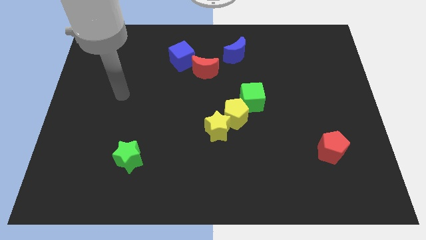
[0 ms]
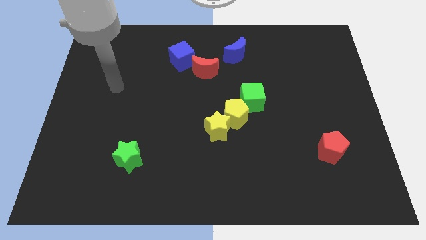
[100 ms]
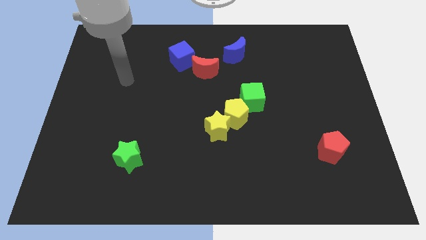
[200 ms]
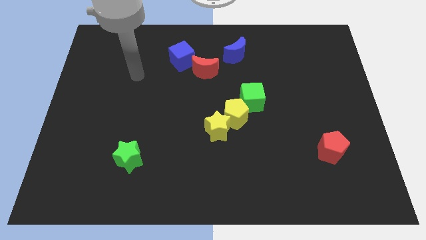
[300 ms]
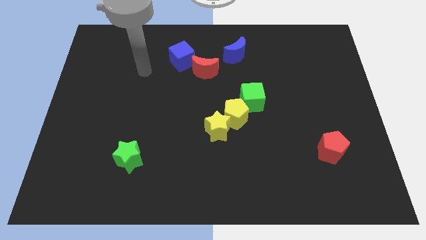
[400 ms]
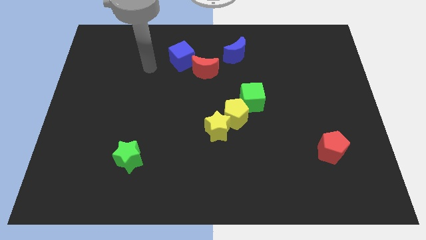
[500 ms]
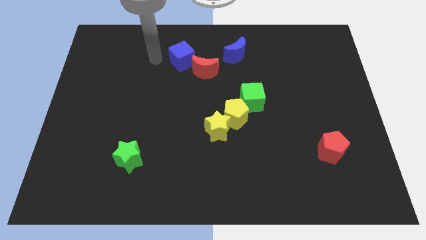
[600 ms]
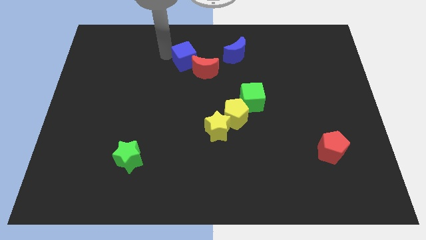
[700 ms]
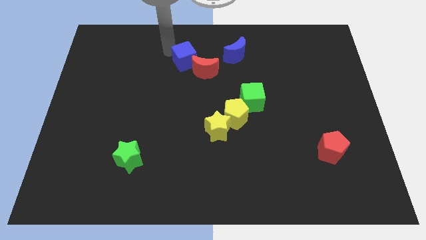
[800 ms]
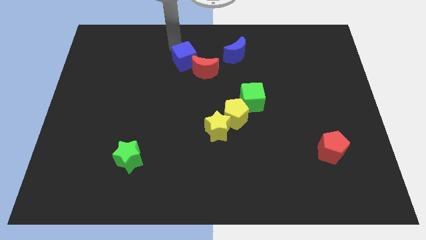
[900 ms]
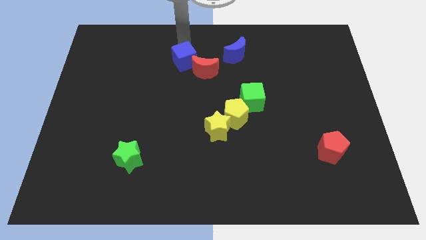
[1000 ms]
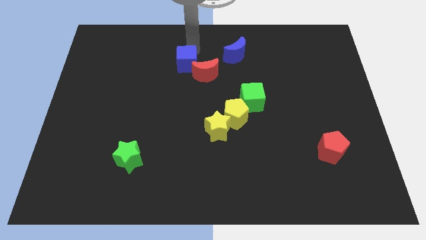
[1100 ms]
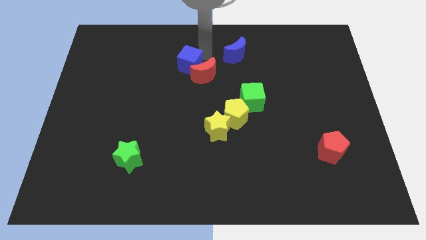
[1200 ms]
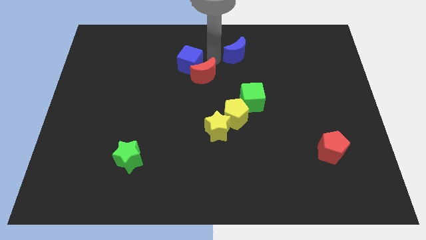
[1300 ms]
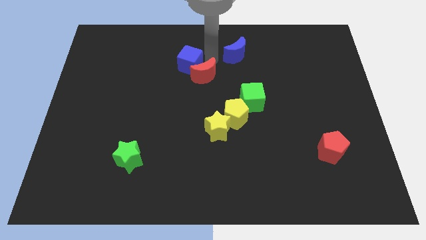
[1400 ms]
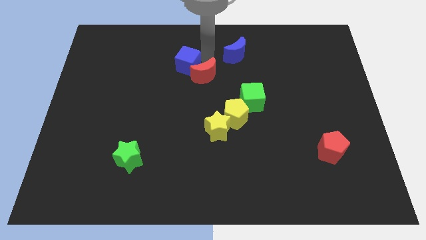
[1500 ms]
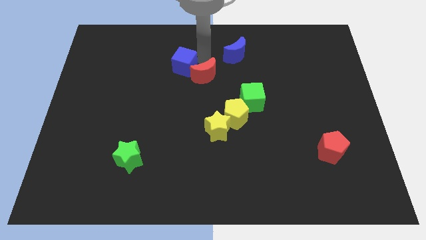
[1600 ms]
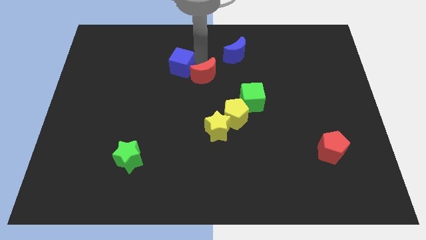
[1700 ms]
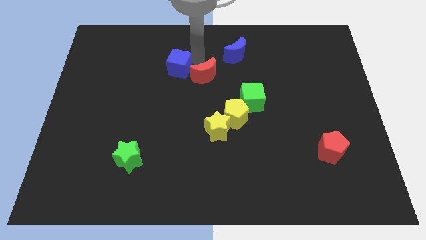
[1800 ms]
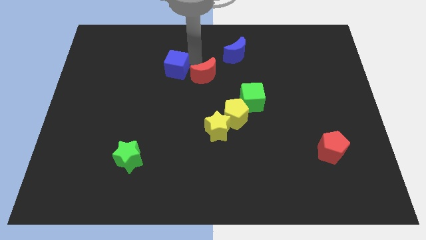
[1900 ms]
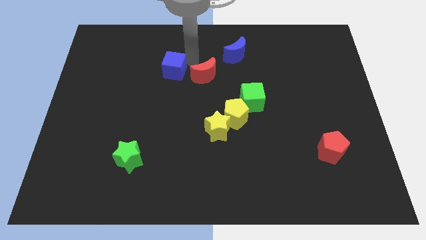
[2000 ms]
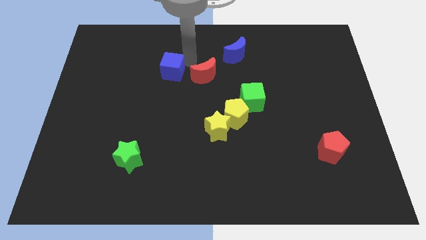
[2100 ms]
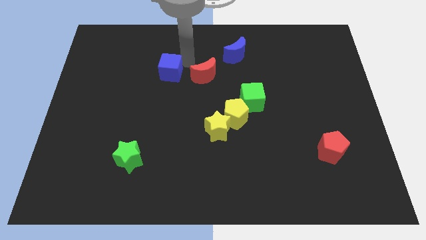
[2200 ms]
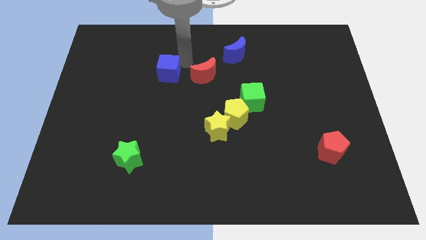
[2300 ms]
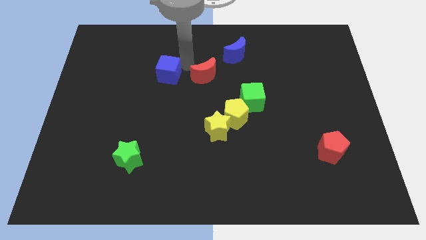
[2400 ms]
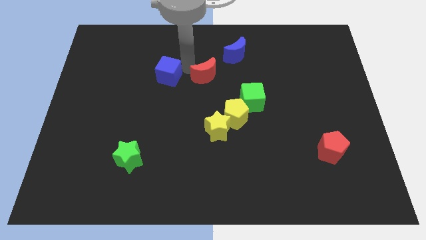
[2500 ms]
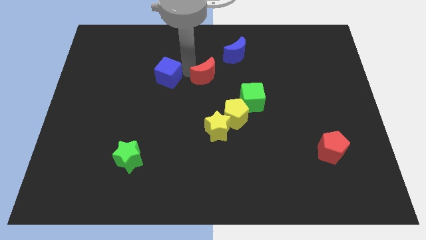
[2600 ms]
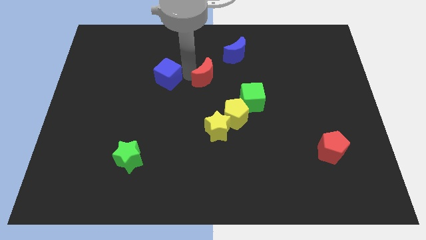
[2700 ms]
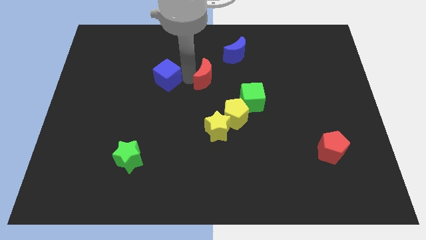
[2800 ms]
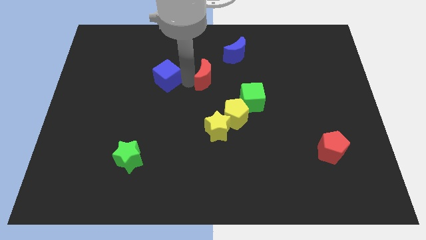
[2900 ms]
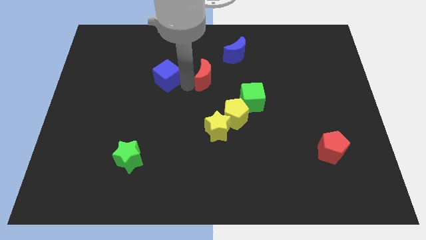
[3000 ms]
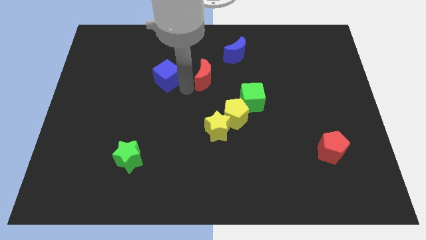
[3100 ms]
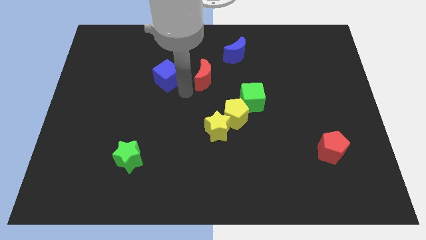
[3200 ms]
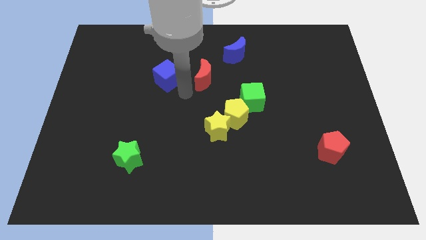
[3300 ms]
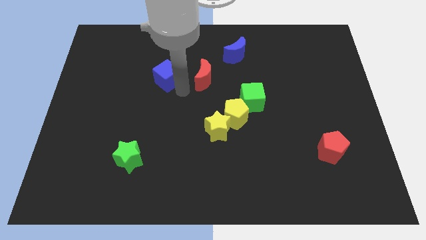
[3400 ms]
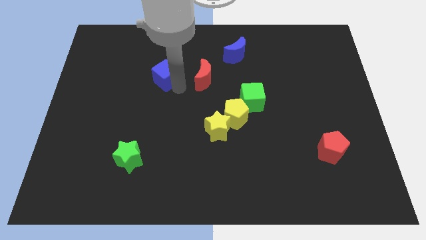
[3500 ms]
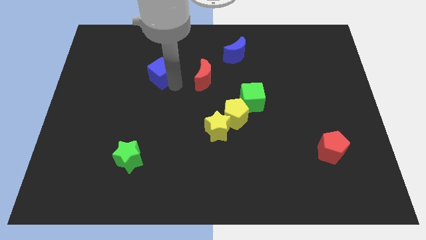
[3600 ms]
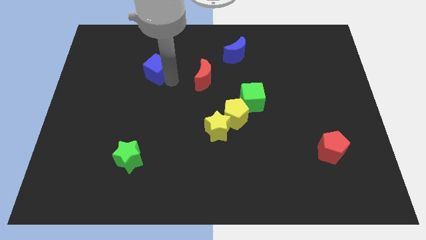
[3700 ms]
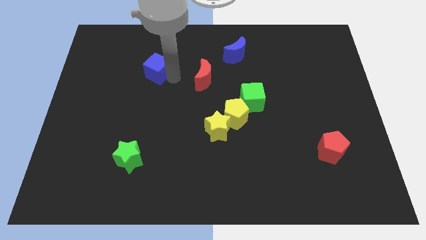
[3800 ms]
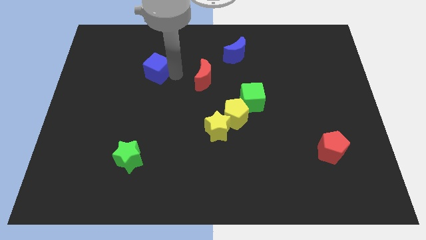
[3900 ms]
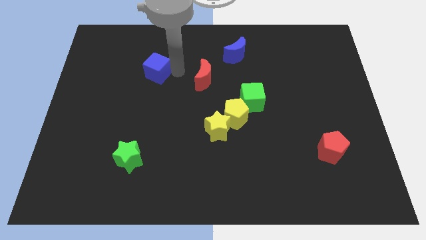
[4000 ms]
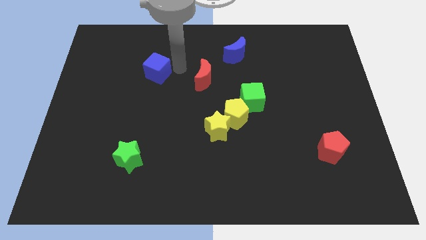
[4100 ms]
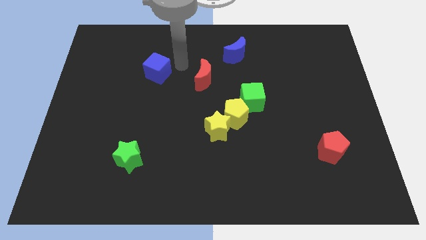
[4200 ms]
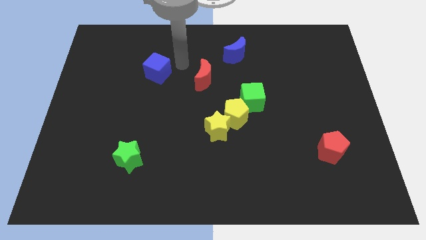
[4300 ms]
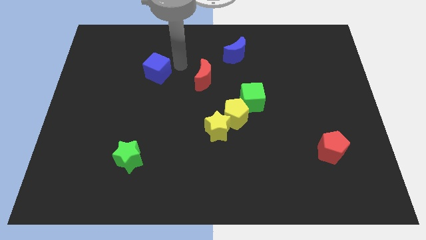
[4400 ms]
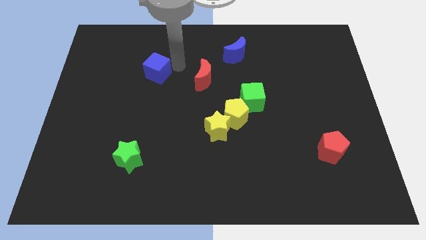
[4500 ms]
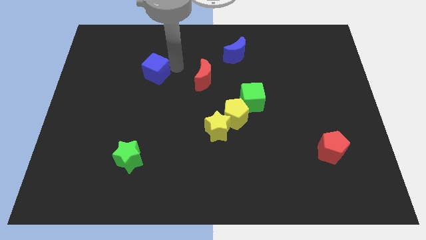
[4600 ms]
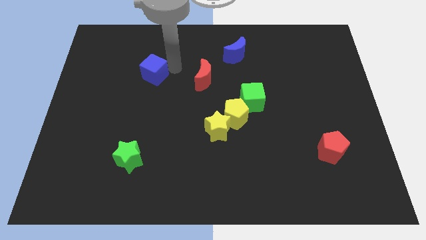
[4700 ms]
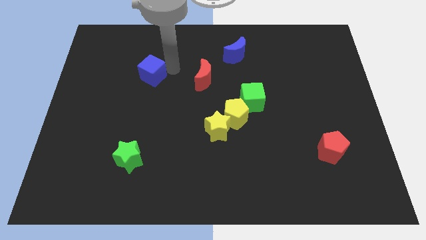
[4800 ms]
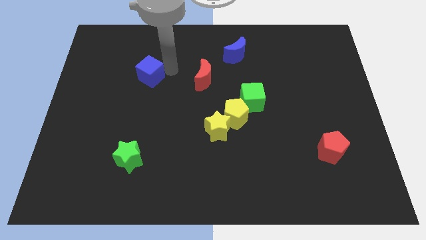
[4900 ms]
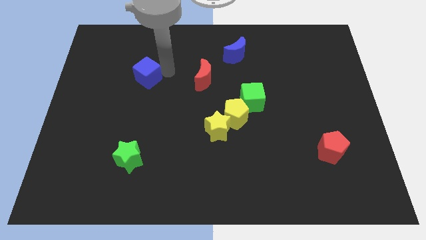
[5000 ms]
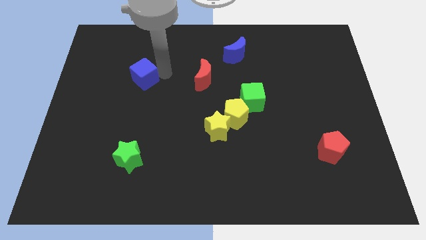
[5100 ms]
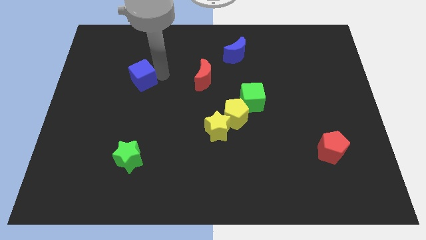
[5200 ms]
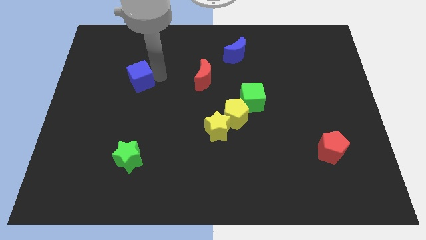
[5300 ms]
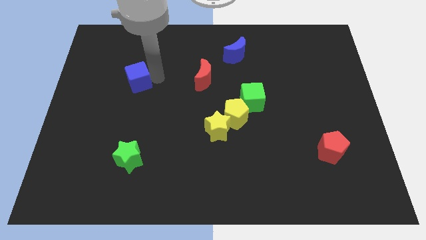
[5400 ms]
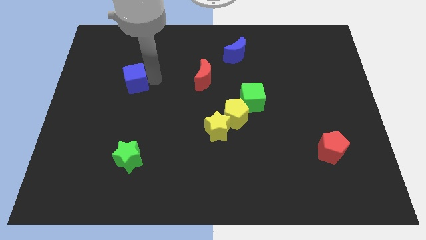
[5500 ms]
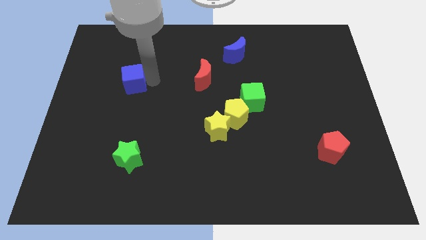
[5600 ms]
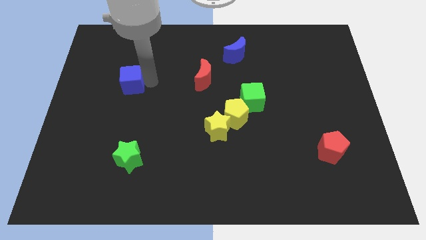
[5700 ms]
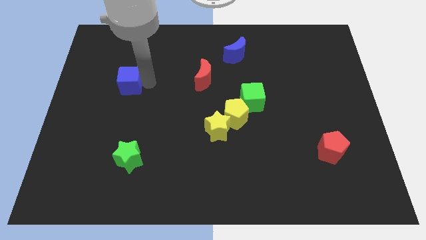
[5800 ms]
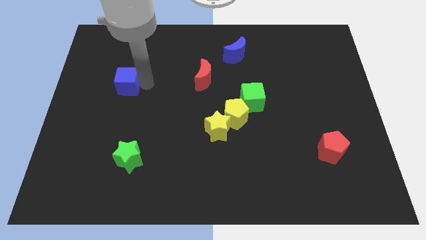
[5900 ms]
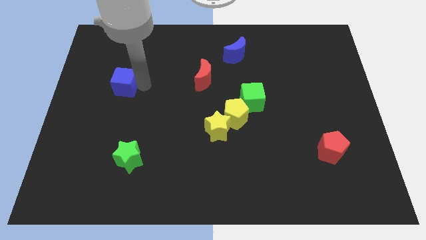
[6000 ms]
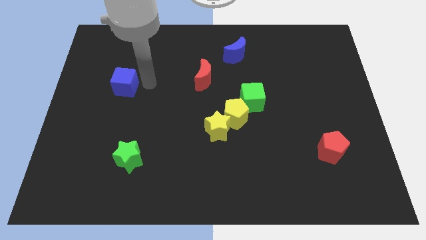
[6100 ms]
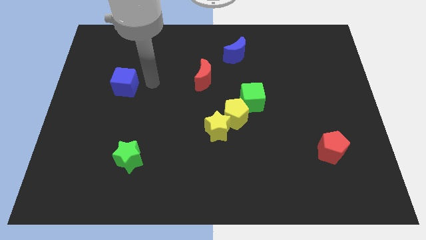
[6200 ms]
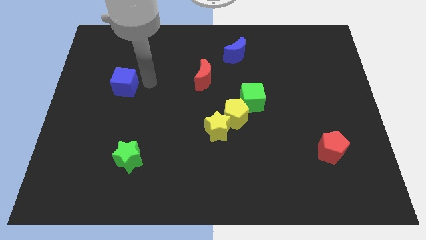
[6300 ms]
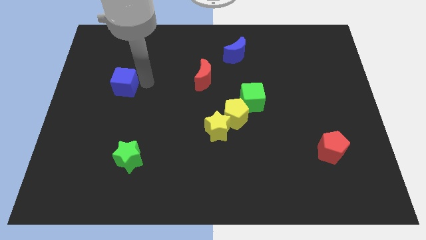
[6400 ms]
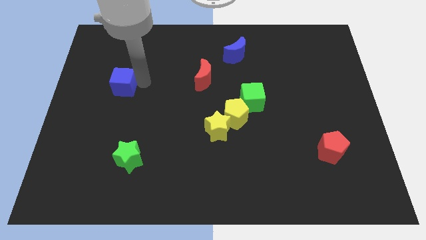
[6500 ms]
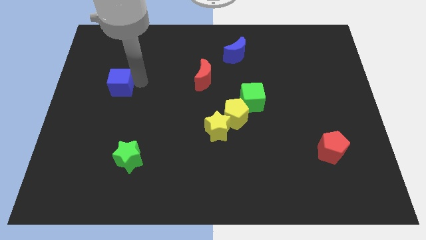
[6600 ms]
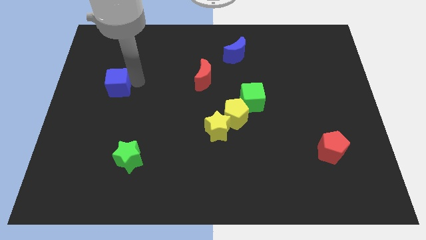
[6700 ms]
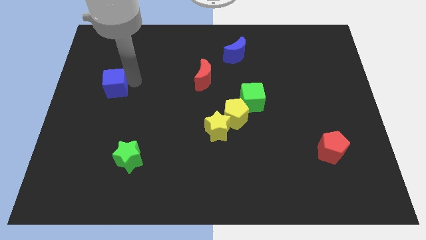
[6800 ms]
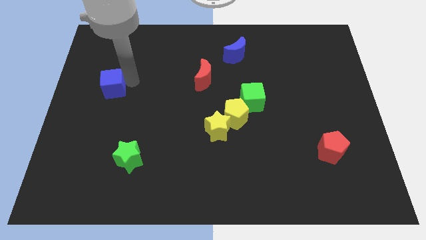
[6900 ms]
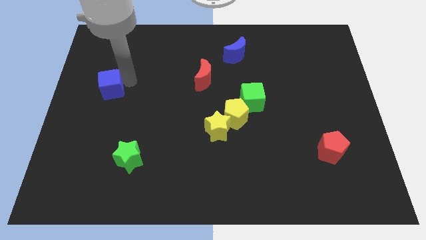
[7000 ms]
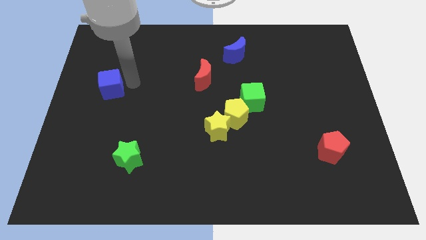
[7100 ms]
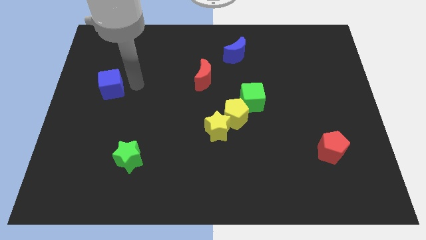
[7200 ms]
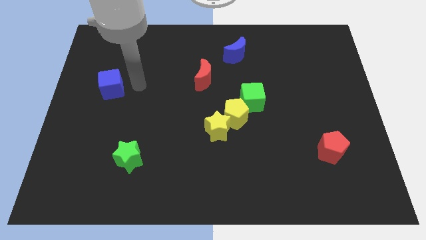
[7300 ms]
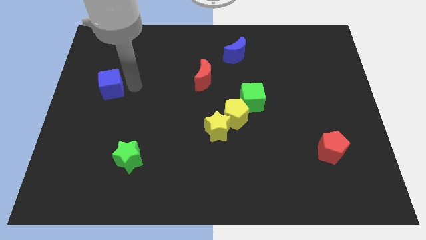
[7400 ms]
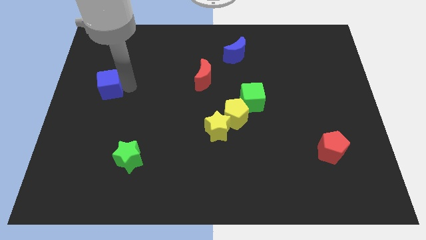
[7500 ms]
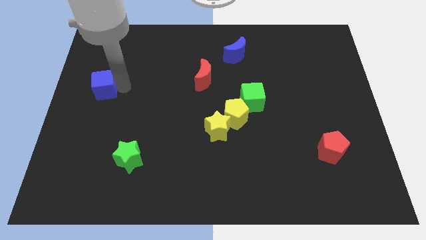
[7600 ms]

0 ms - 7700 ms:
put the blue cube to the left side
